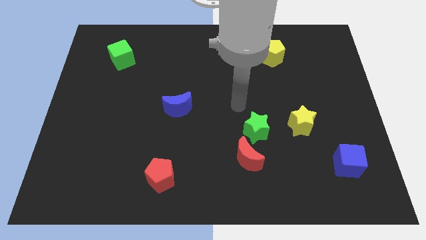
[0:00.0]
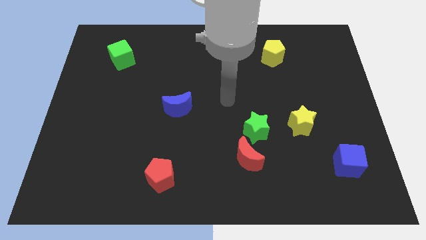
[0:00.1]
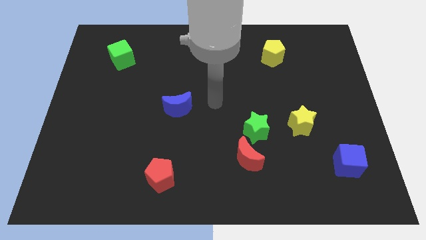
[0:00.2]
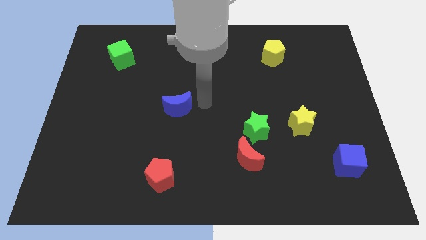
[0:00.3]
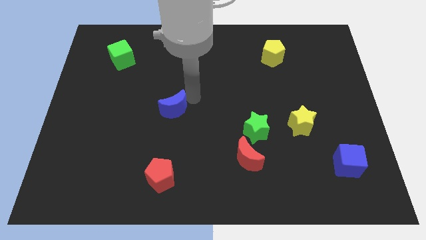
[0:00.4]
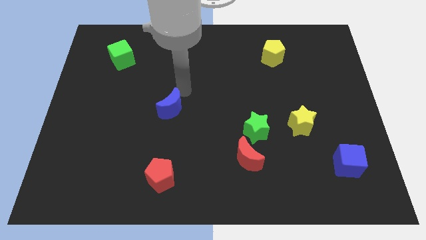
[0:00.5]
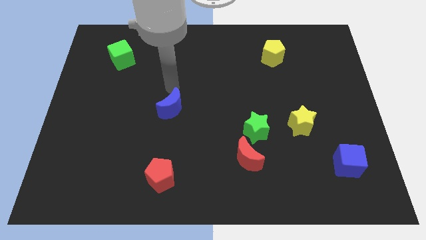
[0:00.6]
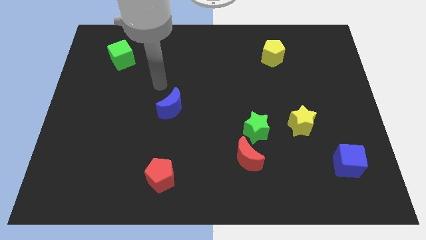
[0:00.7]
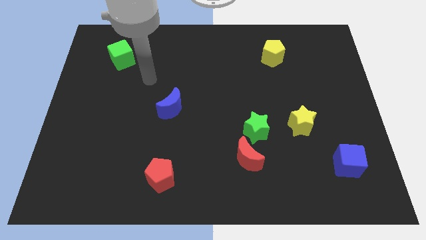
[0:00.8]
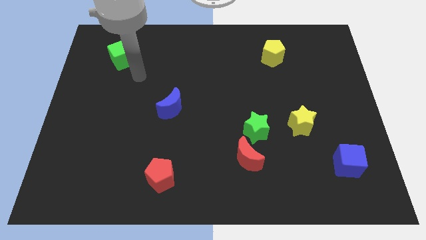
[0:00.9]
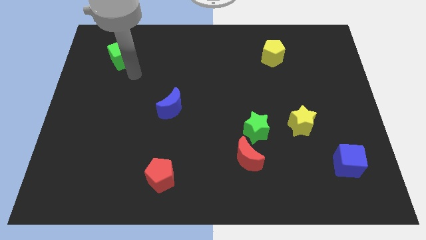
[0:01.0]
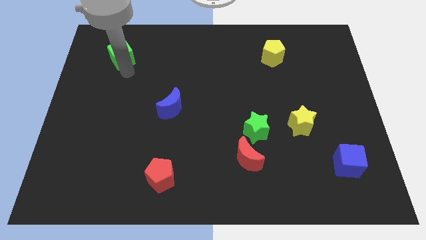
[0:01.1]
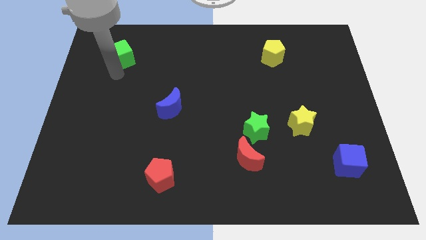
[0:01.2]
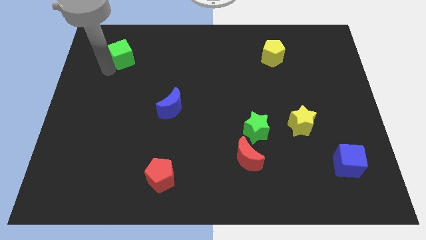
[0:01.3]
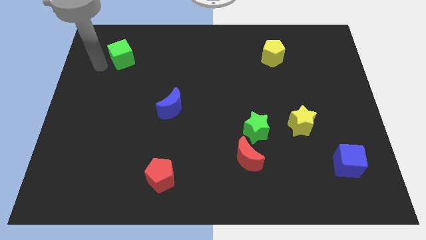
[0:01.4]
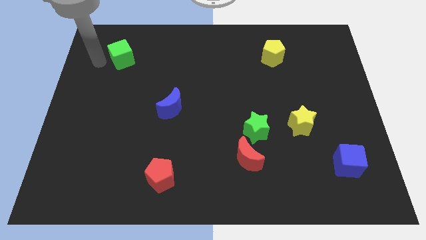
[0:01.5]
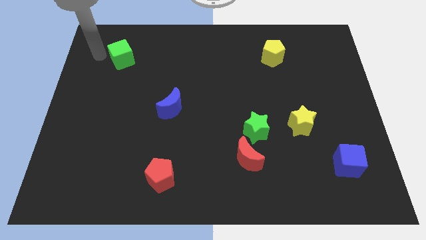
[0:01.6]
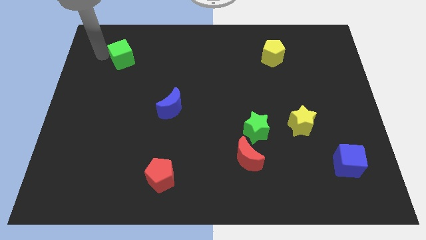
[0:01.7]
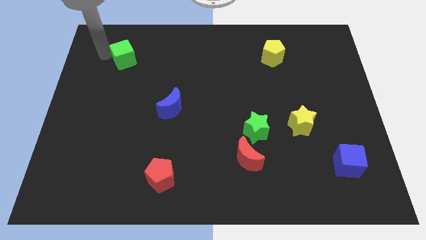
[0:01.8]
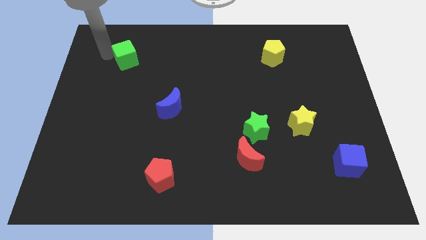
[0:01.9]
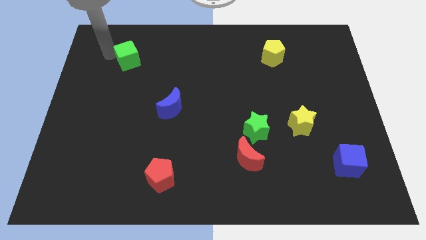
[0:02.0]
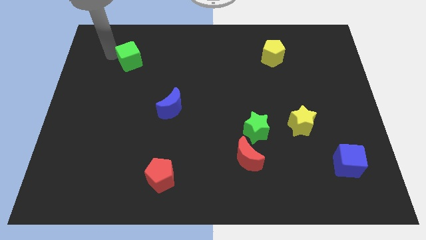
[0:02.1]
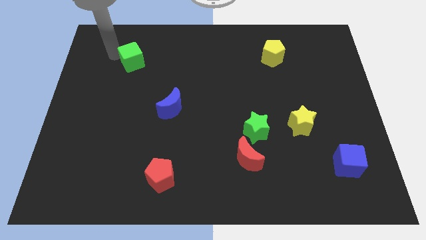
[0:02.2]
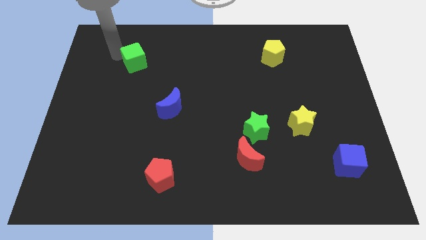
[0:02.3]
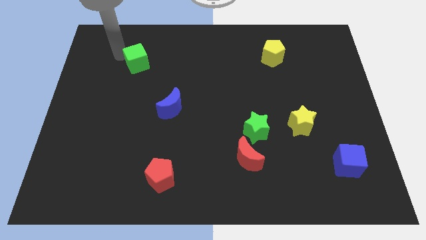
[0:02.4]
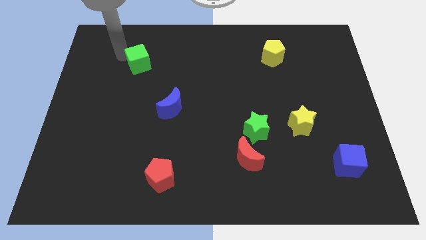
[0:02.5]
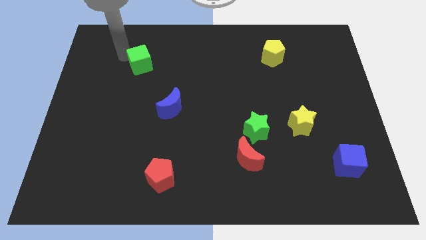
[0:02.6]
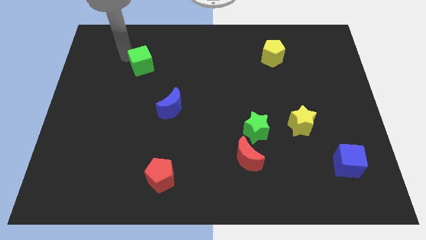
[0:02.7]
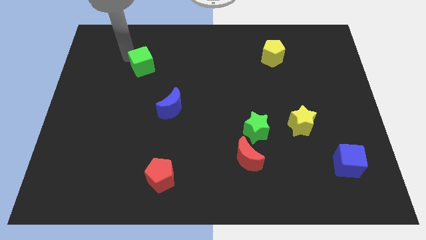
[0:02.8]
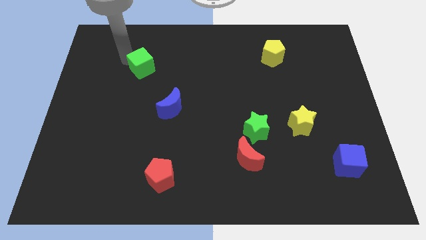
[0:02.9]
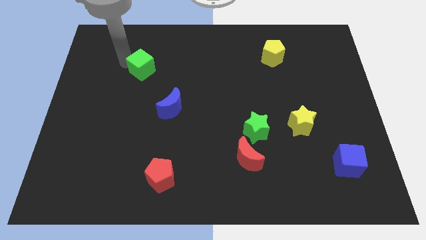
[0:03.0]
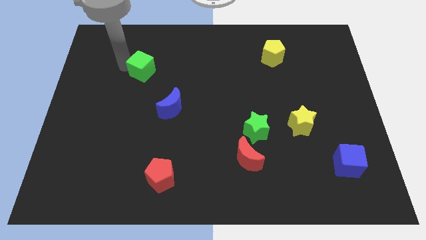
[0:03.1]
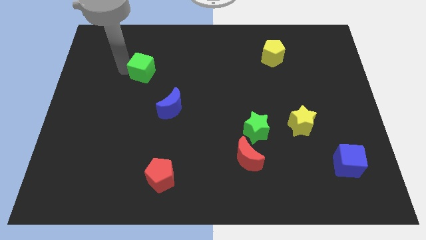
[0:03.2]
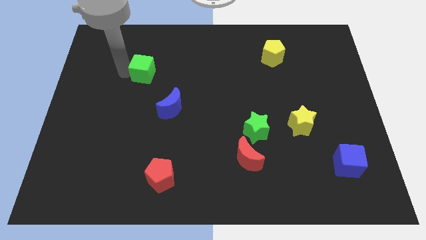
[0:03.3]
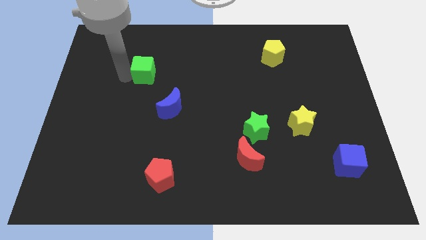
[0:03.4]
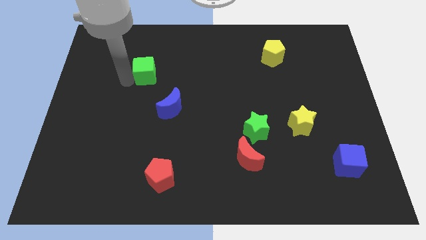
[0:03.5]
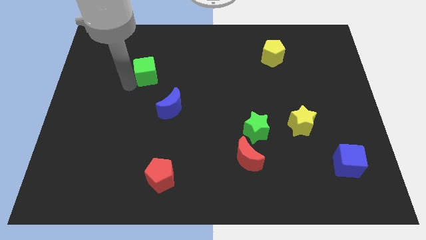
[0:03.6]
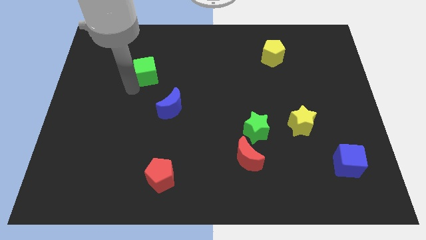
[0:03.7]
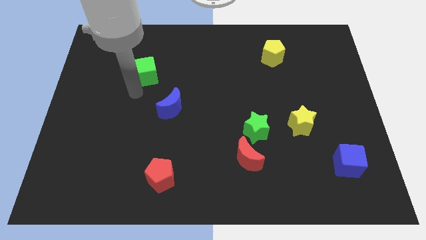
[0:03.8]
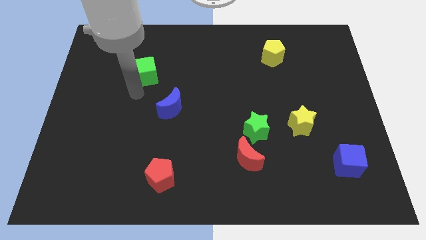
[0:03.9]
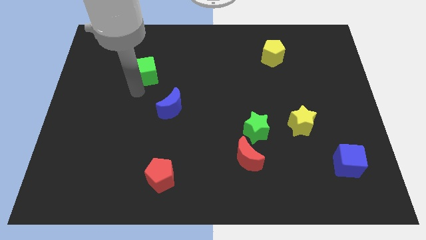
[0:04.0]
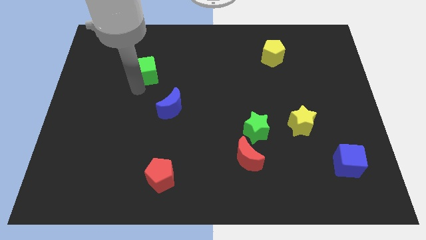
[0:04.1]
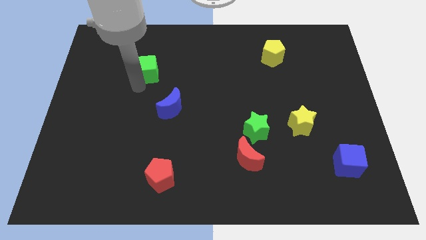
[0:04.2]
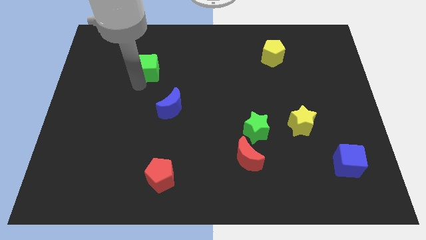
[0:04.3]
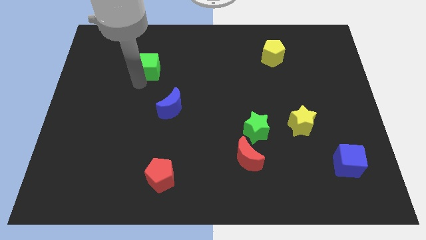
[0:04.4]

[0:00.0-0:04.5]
slightly move the green cube to the right

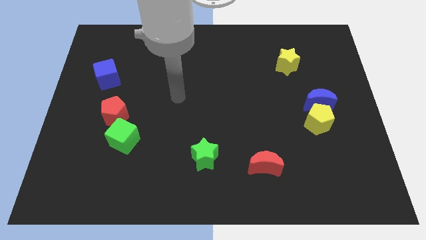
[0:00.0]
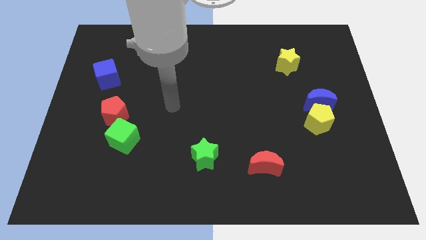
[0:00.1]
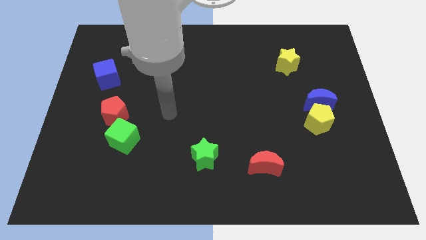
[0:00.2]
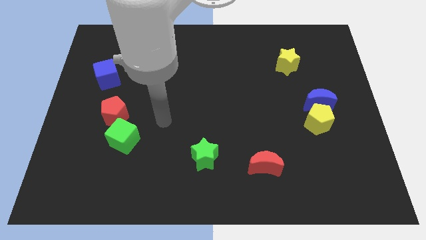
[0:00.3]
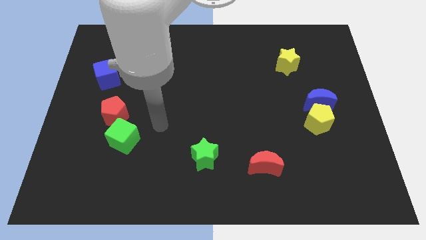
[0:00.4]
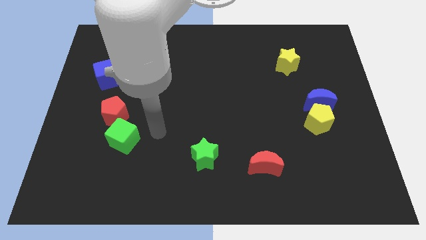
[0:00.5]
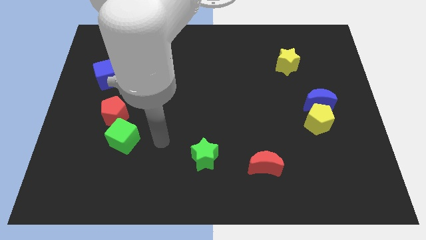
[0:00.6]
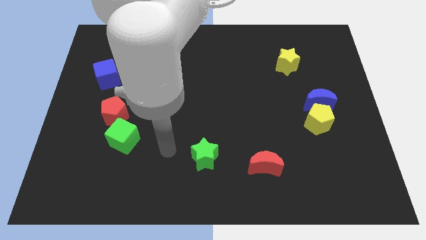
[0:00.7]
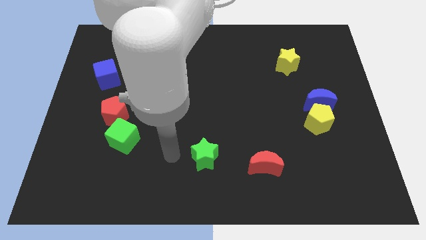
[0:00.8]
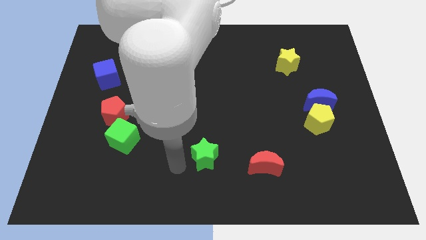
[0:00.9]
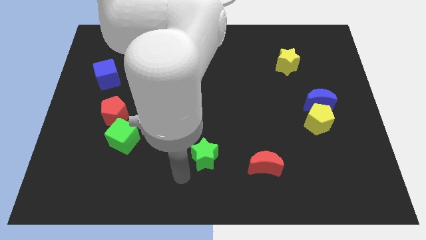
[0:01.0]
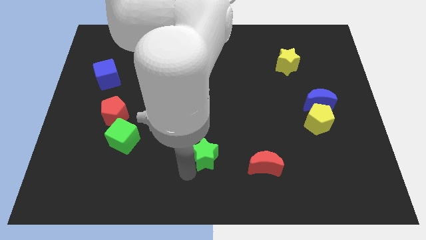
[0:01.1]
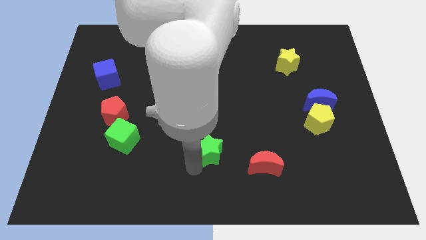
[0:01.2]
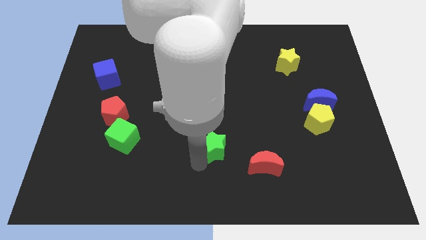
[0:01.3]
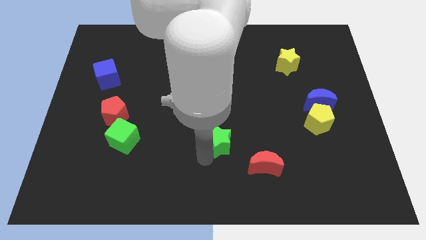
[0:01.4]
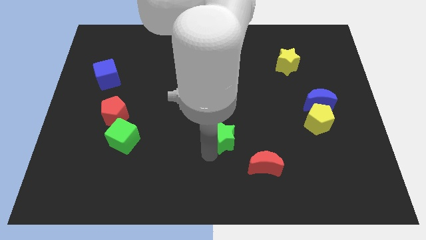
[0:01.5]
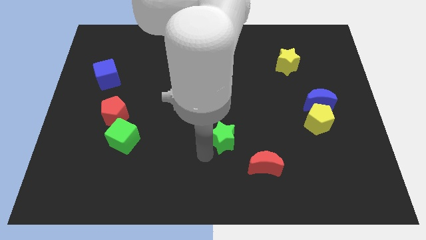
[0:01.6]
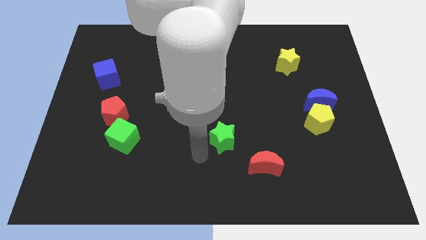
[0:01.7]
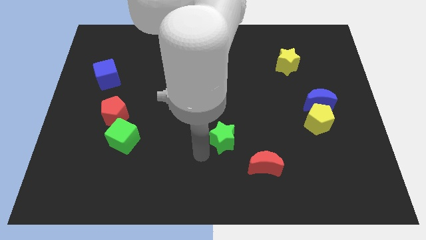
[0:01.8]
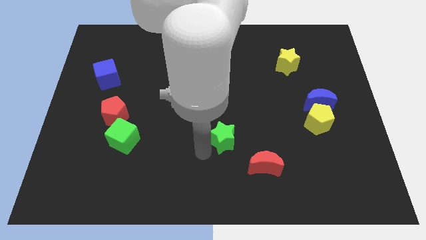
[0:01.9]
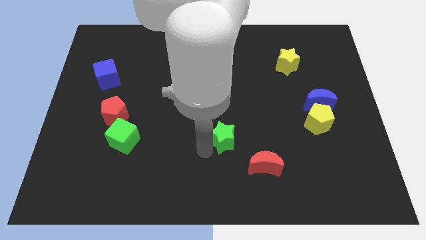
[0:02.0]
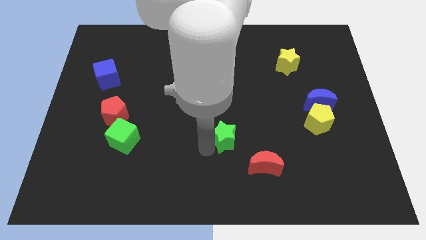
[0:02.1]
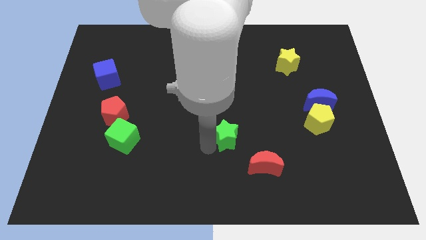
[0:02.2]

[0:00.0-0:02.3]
push the green star somewhat up and to the right

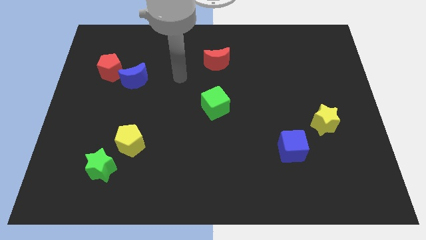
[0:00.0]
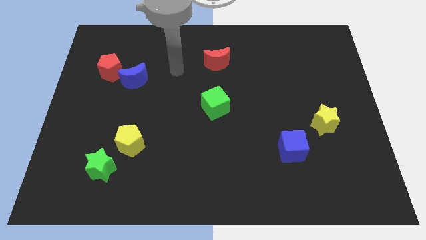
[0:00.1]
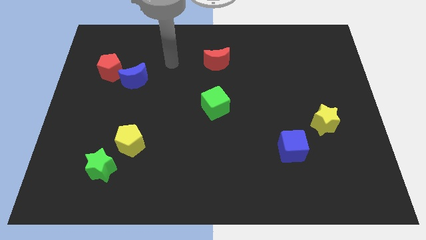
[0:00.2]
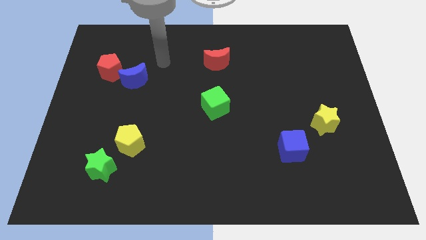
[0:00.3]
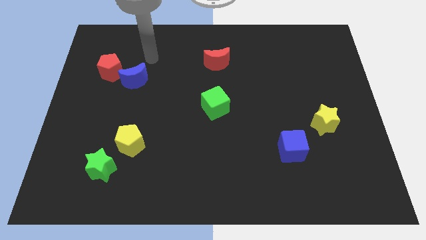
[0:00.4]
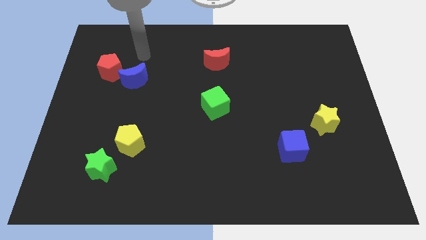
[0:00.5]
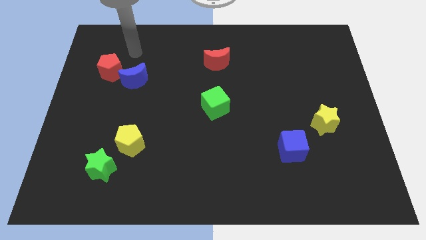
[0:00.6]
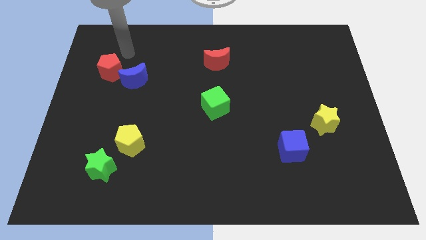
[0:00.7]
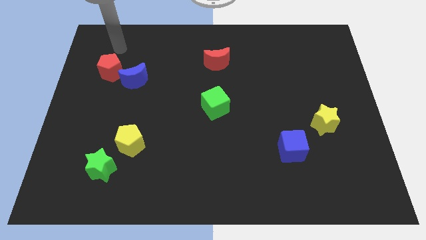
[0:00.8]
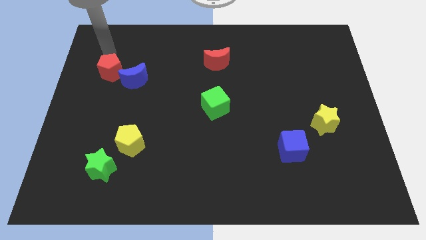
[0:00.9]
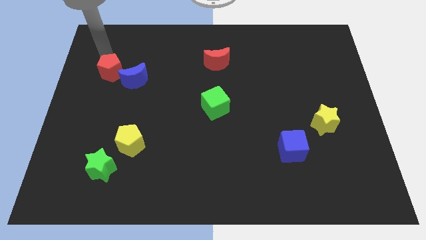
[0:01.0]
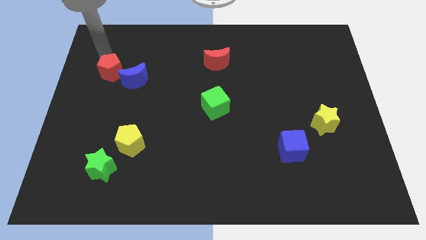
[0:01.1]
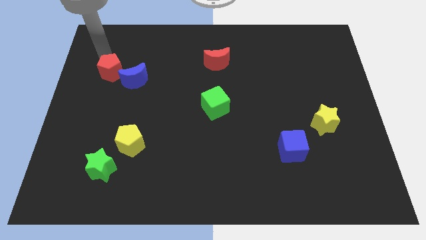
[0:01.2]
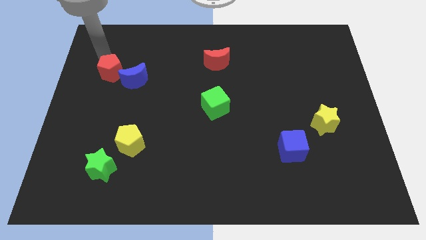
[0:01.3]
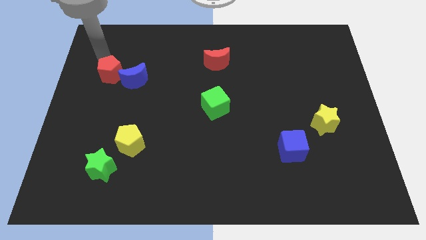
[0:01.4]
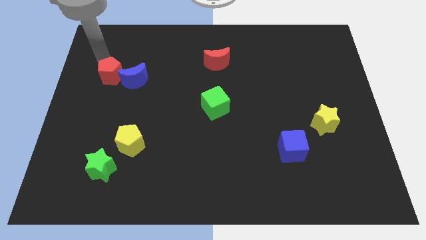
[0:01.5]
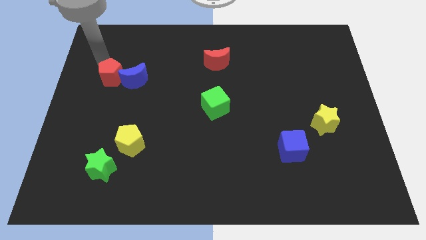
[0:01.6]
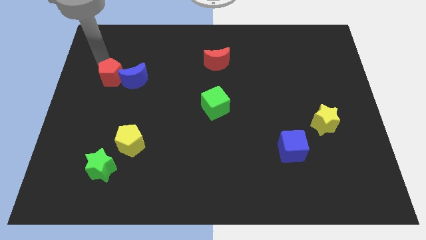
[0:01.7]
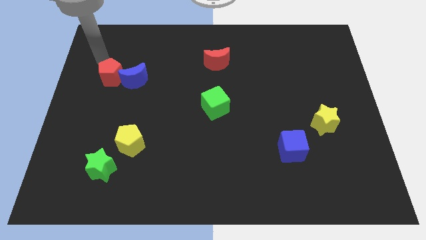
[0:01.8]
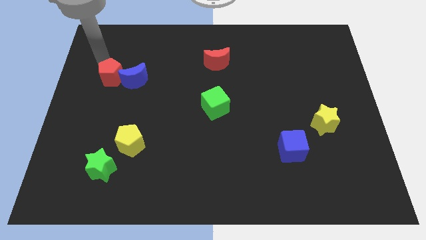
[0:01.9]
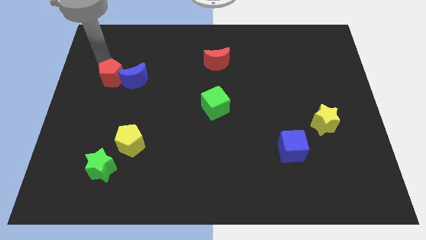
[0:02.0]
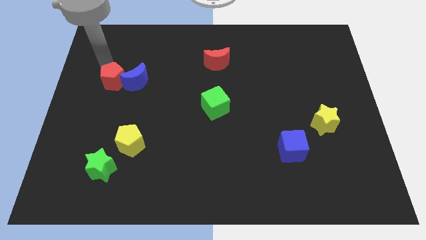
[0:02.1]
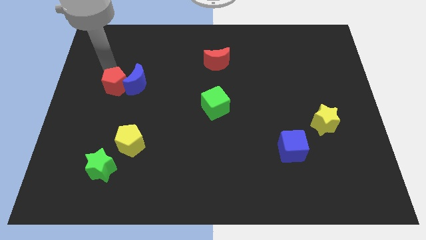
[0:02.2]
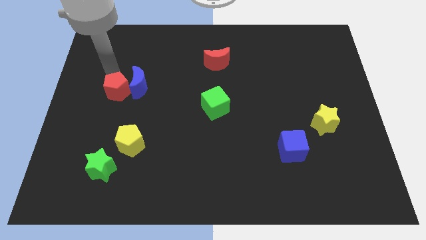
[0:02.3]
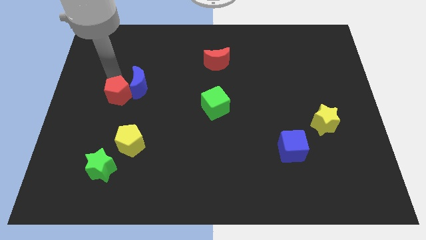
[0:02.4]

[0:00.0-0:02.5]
slightly move the red pentagon downwards and to the right diagonally
